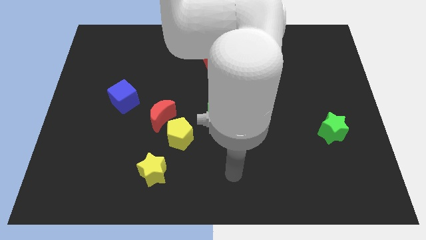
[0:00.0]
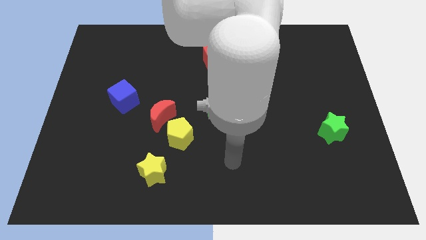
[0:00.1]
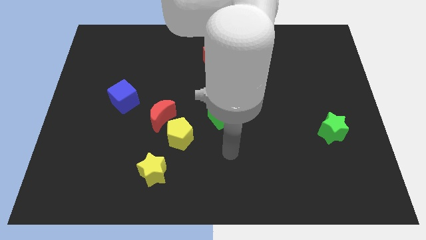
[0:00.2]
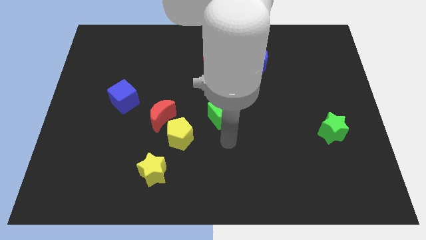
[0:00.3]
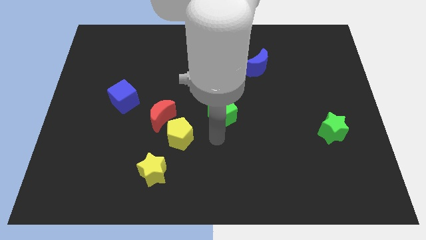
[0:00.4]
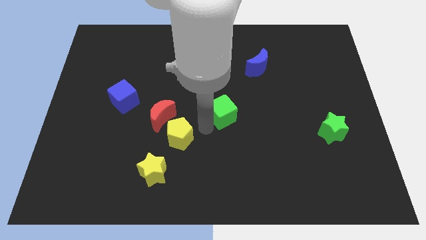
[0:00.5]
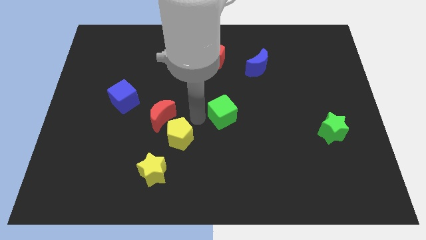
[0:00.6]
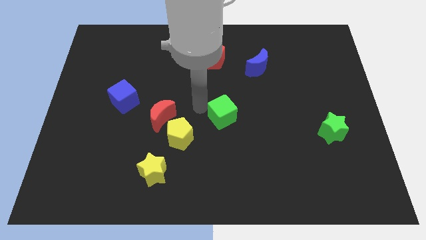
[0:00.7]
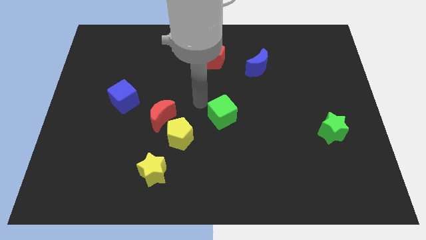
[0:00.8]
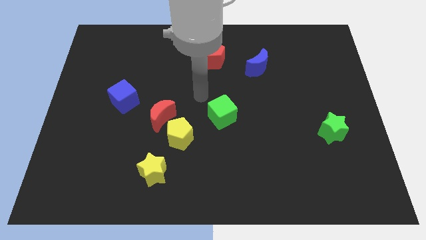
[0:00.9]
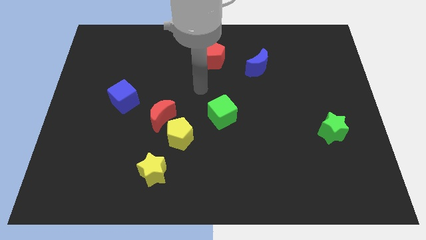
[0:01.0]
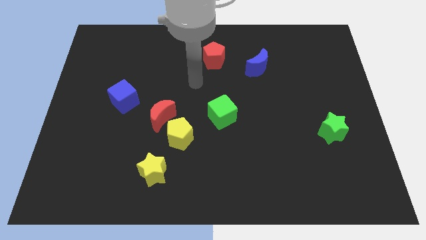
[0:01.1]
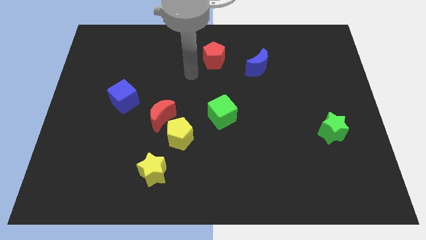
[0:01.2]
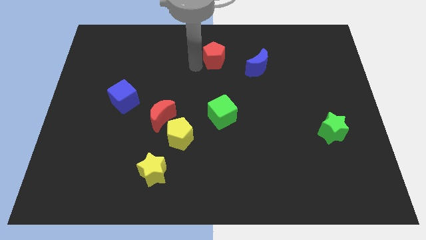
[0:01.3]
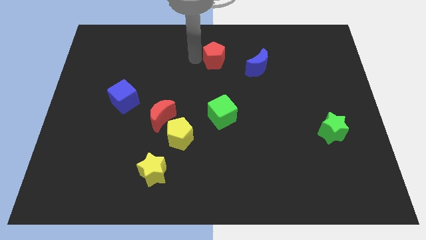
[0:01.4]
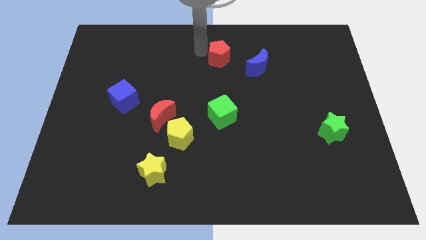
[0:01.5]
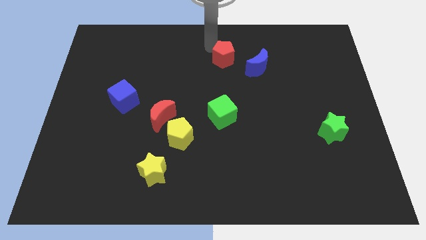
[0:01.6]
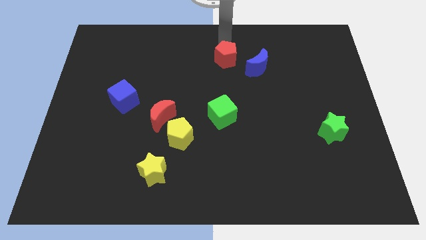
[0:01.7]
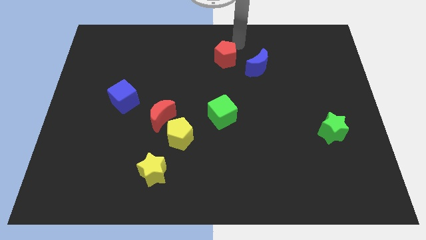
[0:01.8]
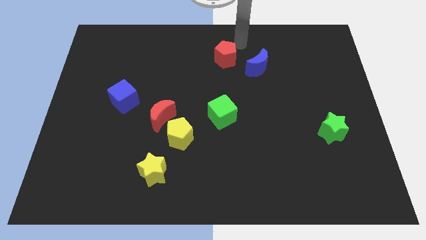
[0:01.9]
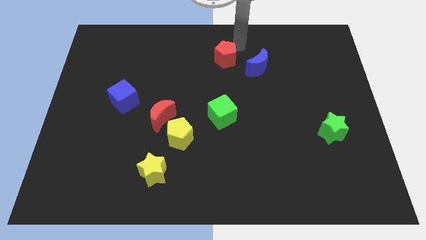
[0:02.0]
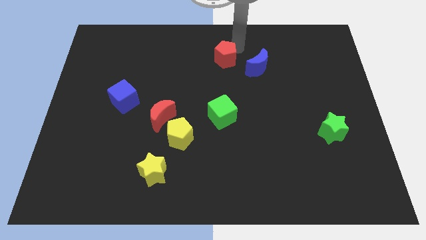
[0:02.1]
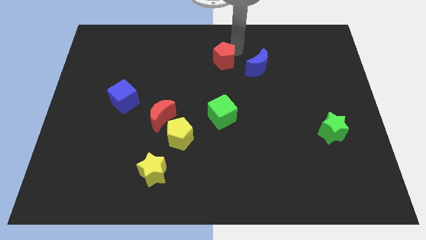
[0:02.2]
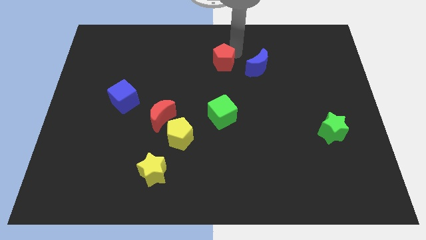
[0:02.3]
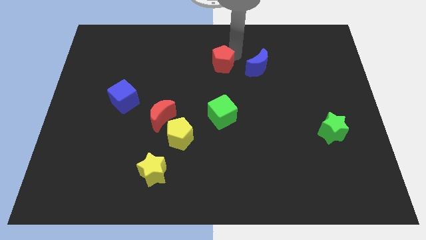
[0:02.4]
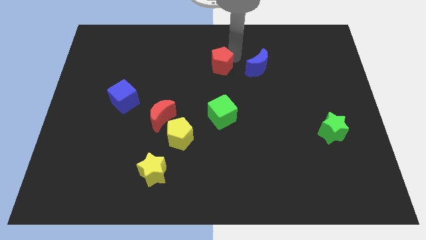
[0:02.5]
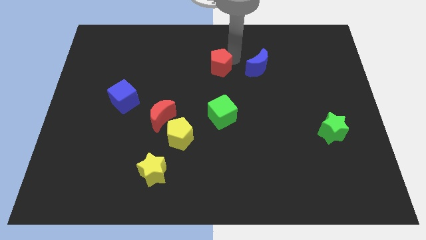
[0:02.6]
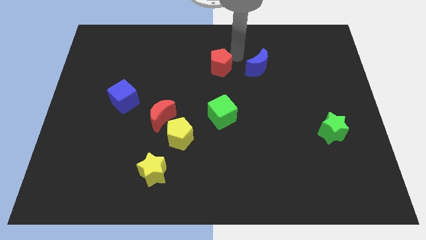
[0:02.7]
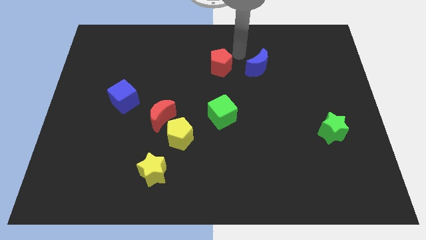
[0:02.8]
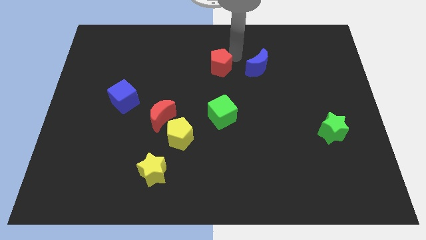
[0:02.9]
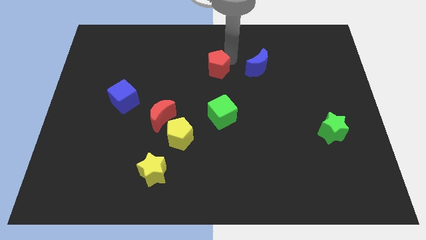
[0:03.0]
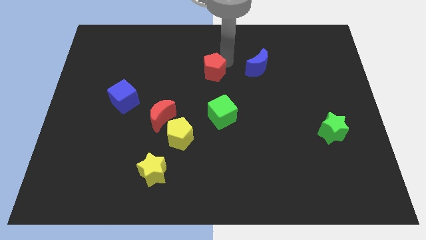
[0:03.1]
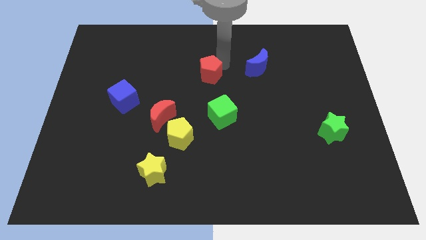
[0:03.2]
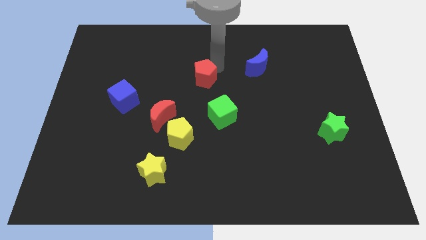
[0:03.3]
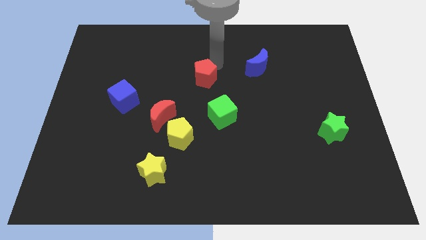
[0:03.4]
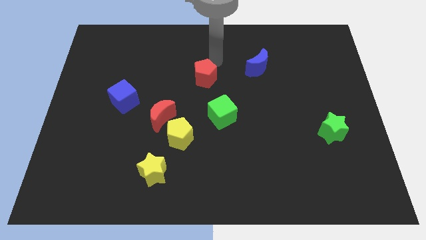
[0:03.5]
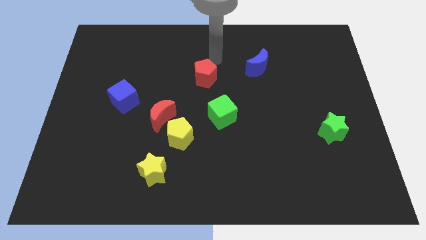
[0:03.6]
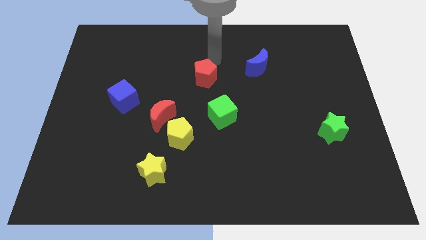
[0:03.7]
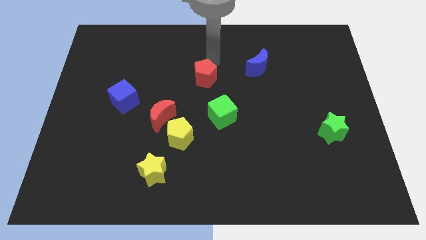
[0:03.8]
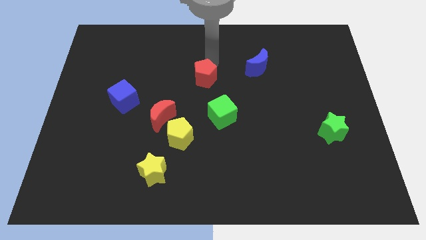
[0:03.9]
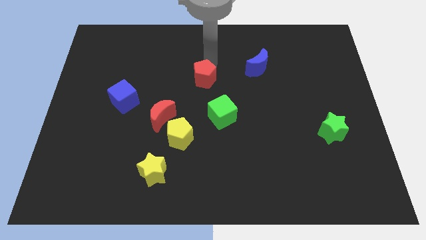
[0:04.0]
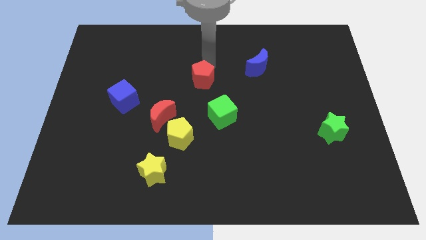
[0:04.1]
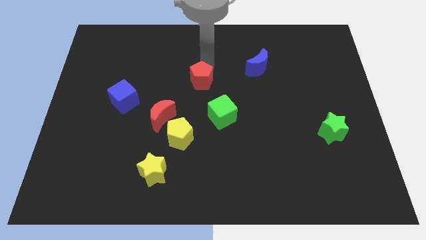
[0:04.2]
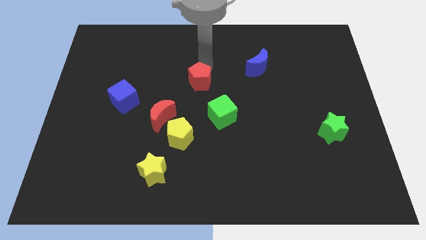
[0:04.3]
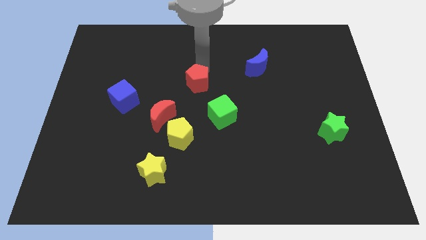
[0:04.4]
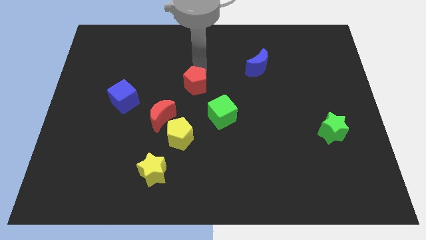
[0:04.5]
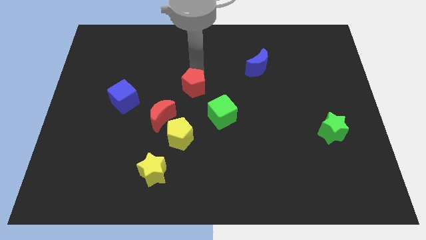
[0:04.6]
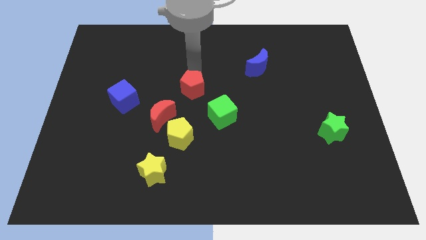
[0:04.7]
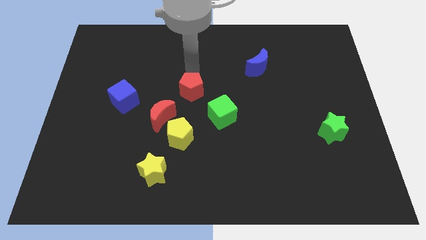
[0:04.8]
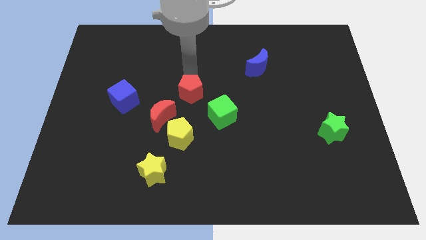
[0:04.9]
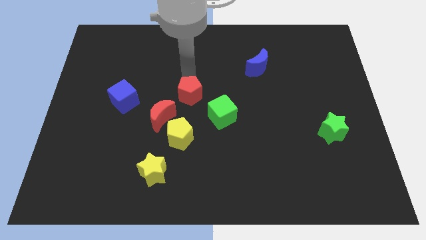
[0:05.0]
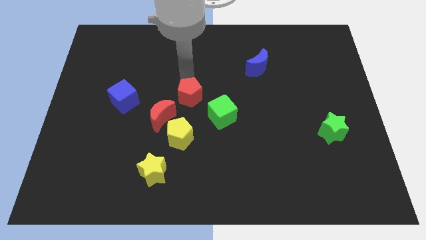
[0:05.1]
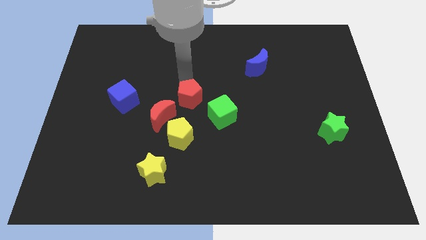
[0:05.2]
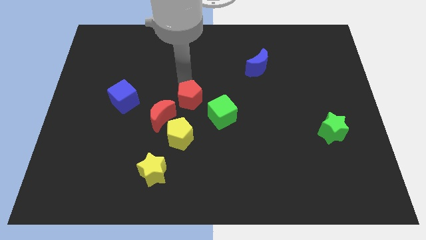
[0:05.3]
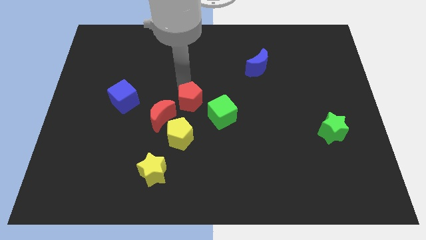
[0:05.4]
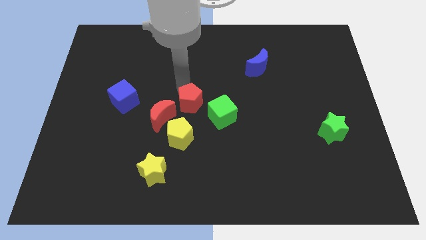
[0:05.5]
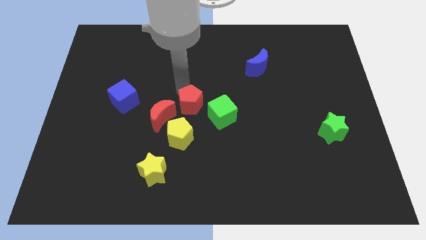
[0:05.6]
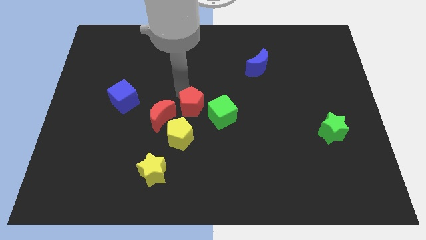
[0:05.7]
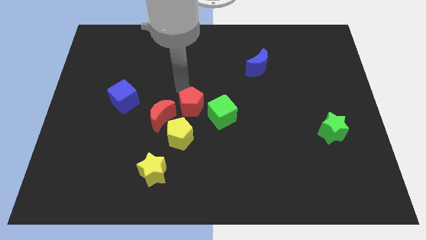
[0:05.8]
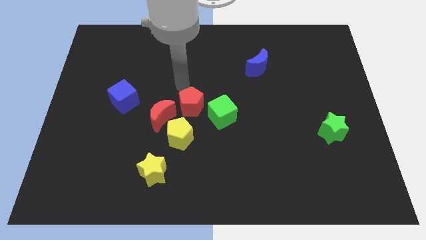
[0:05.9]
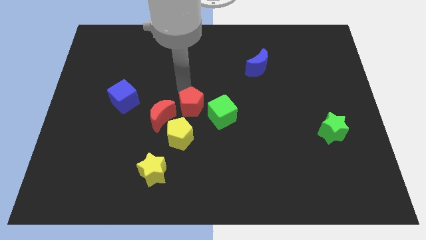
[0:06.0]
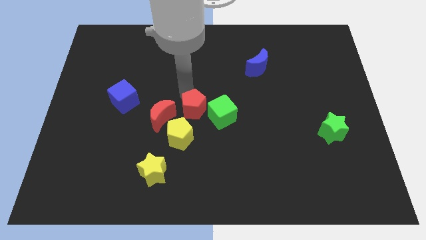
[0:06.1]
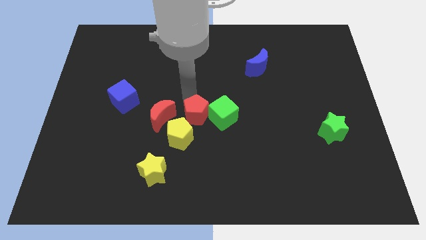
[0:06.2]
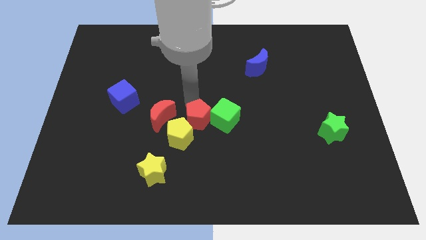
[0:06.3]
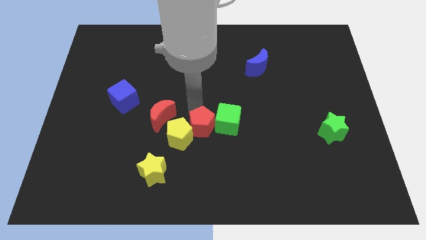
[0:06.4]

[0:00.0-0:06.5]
move the red pentagon down

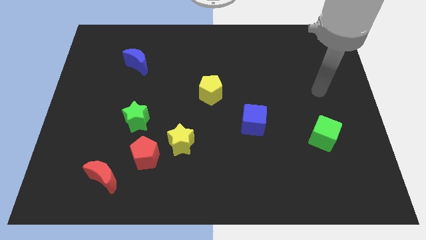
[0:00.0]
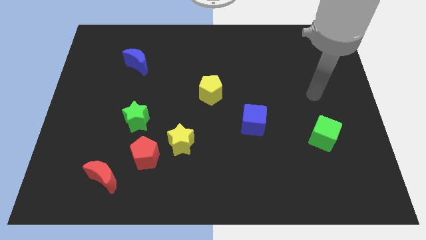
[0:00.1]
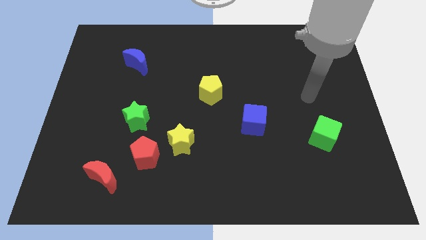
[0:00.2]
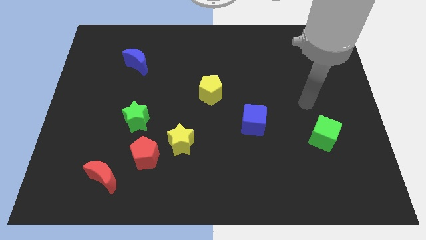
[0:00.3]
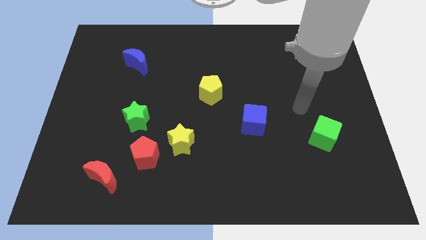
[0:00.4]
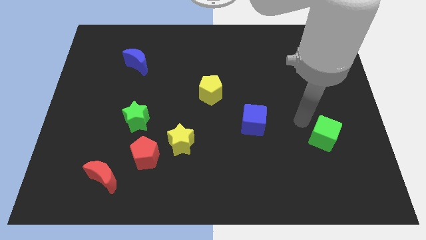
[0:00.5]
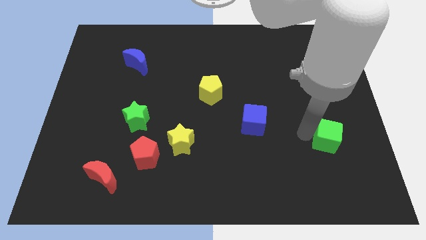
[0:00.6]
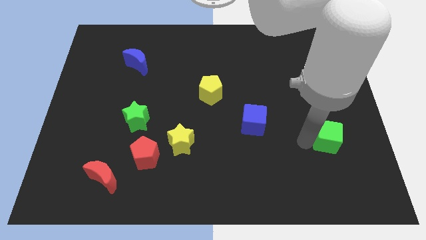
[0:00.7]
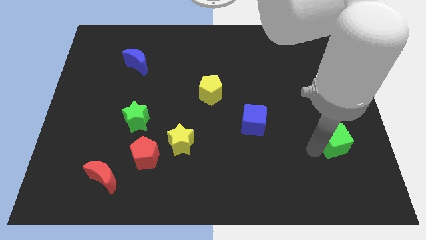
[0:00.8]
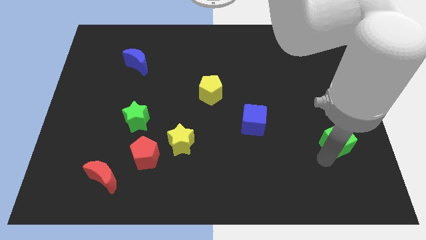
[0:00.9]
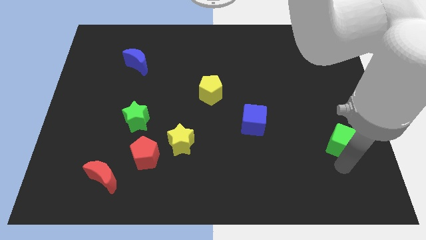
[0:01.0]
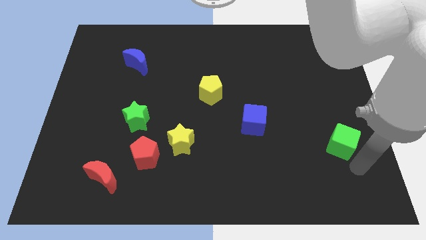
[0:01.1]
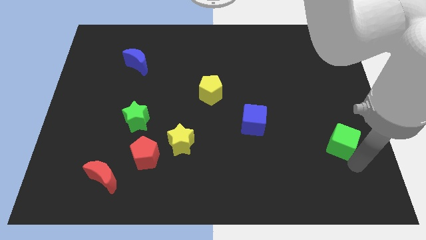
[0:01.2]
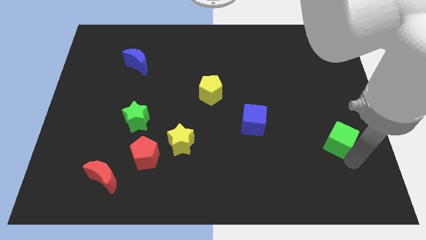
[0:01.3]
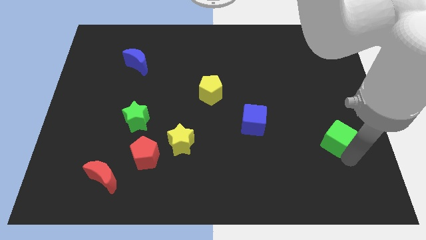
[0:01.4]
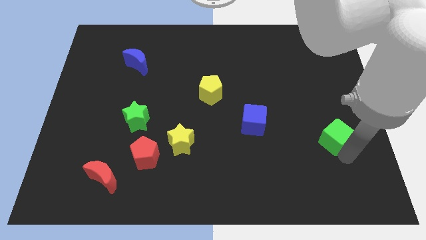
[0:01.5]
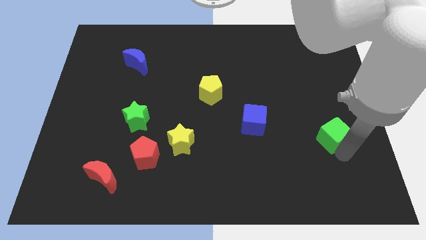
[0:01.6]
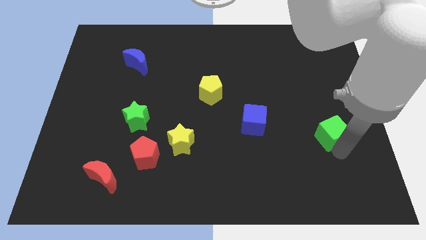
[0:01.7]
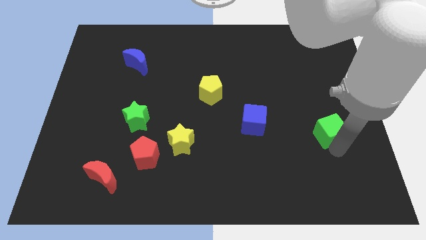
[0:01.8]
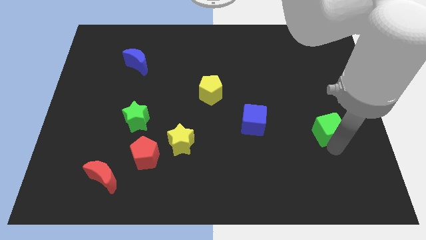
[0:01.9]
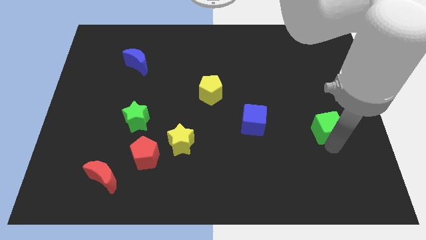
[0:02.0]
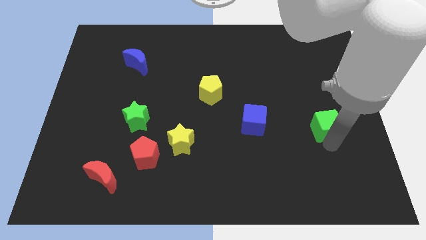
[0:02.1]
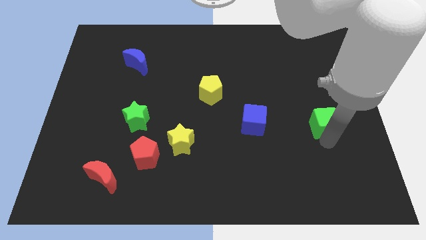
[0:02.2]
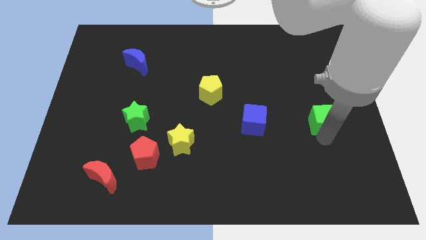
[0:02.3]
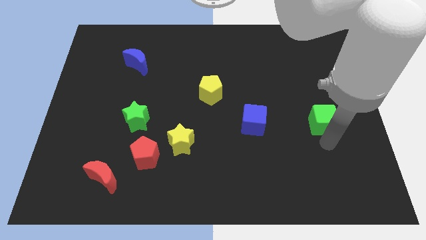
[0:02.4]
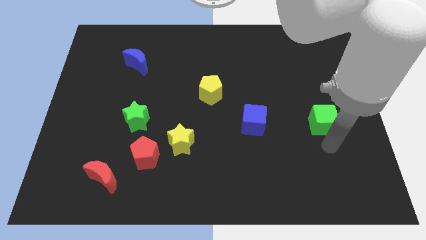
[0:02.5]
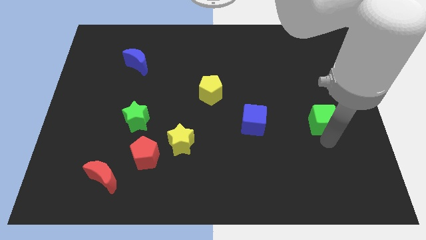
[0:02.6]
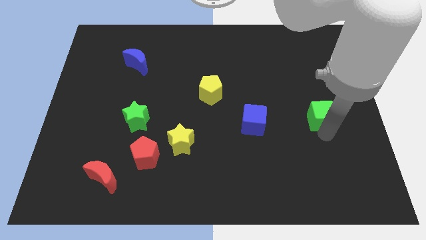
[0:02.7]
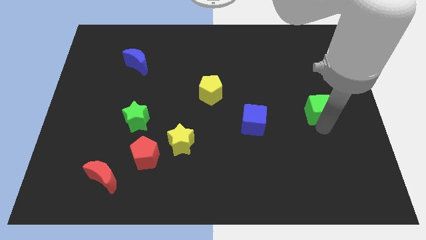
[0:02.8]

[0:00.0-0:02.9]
move the green cube slightly up
